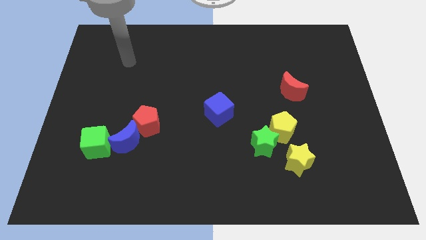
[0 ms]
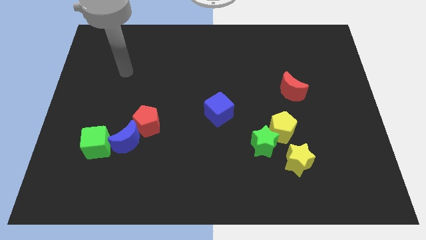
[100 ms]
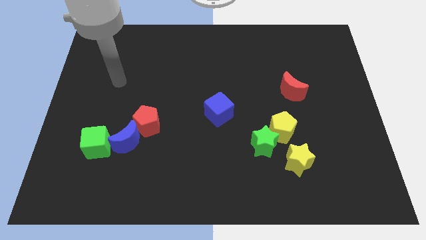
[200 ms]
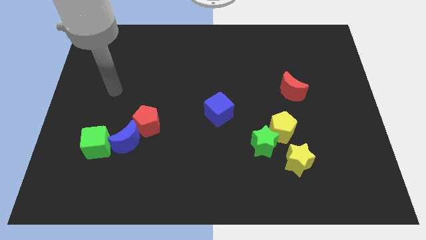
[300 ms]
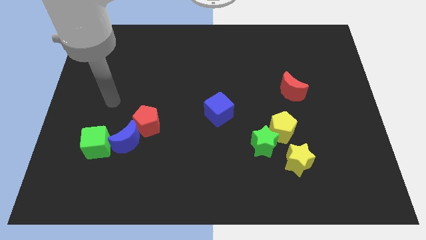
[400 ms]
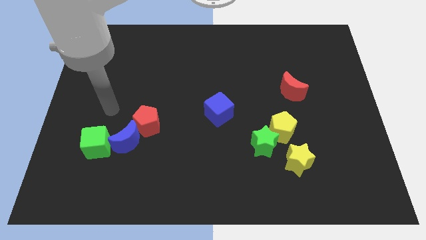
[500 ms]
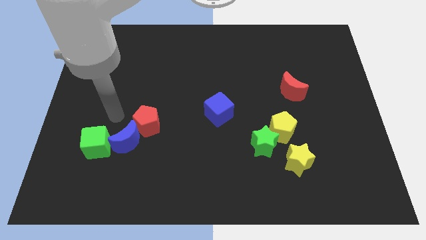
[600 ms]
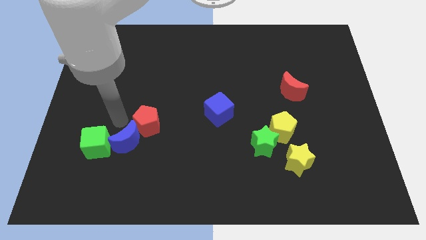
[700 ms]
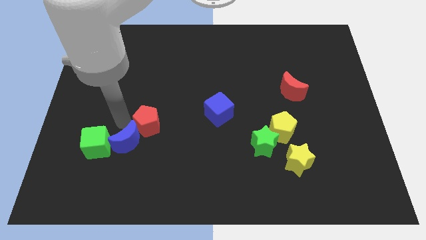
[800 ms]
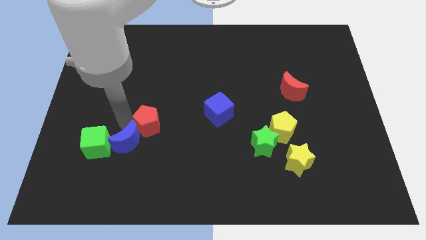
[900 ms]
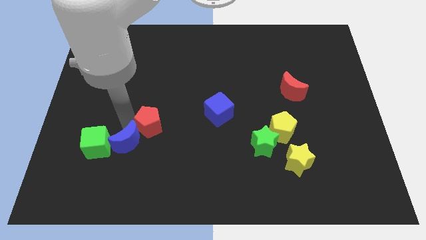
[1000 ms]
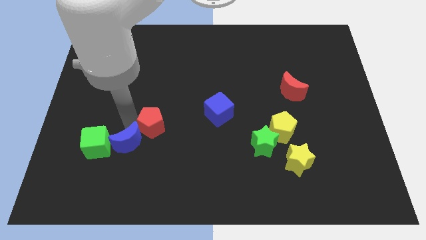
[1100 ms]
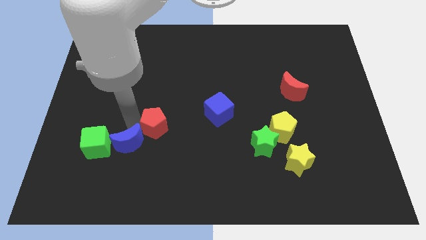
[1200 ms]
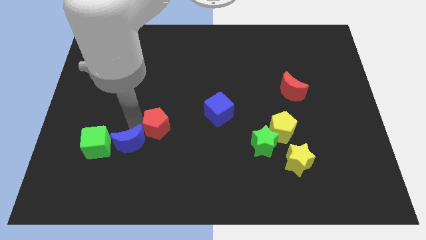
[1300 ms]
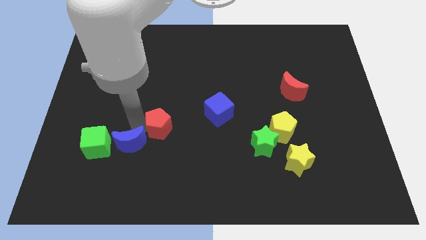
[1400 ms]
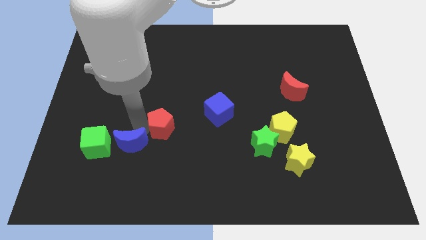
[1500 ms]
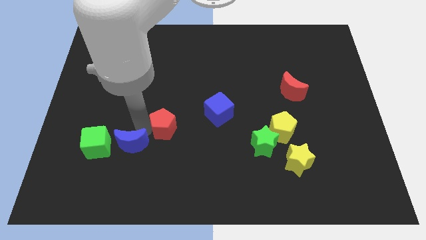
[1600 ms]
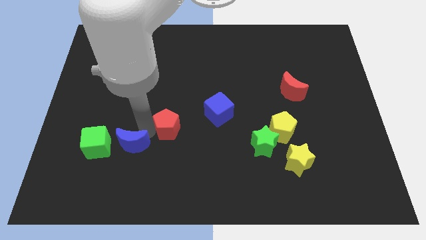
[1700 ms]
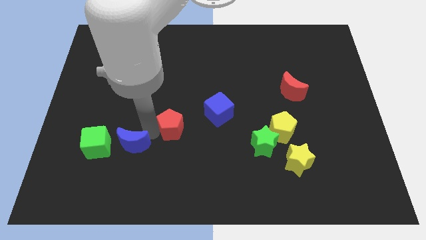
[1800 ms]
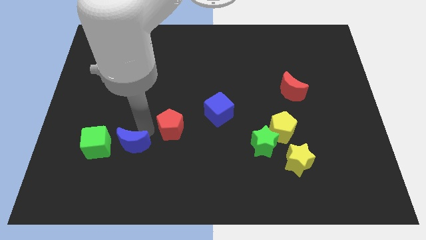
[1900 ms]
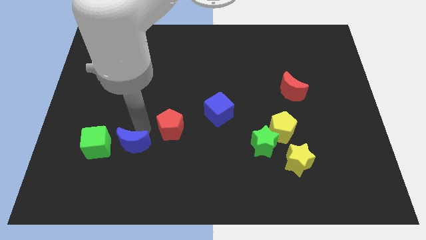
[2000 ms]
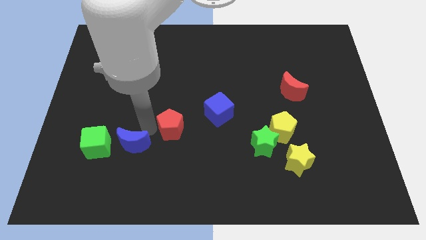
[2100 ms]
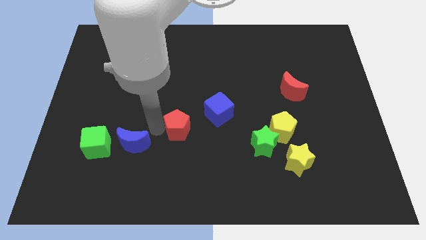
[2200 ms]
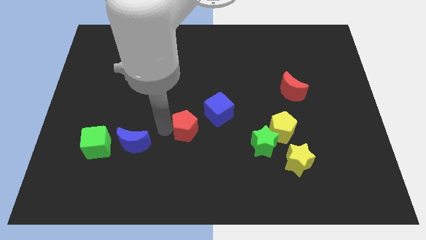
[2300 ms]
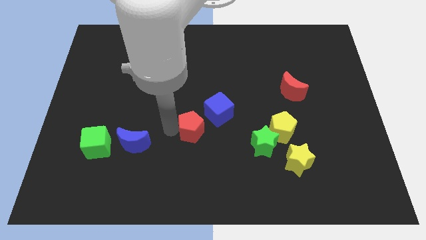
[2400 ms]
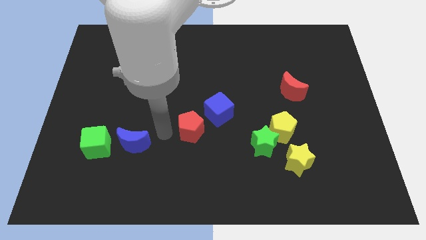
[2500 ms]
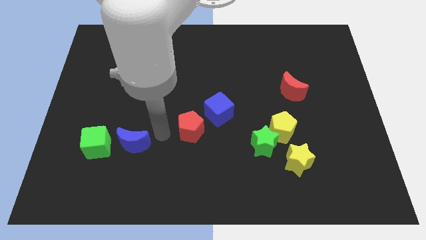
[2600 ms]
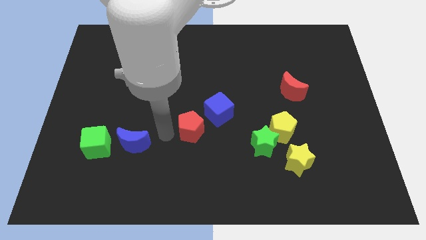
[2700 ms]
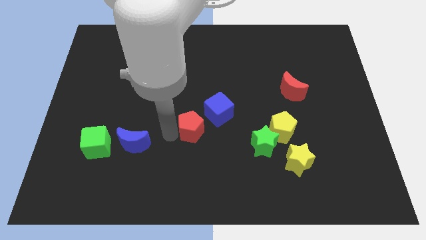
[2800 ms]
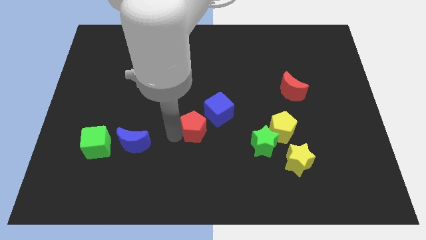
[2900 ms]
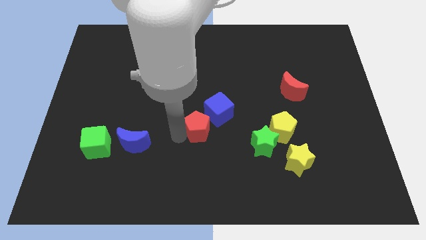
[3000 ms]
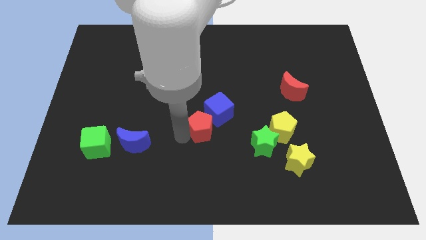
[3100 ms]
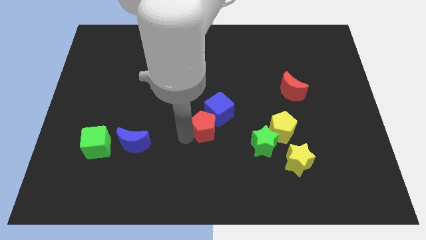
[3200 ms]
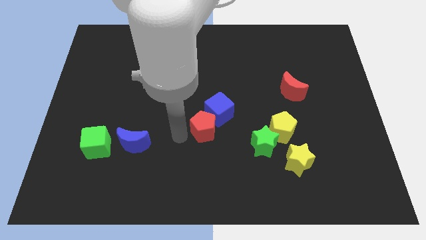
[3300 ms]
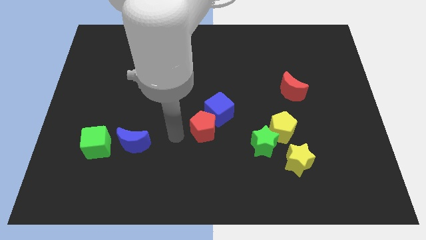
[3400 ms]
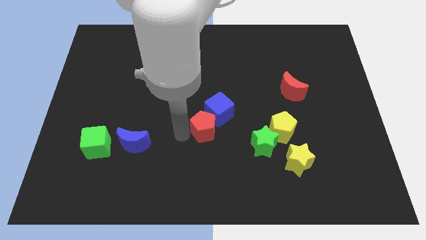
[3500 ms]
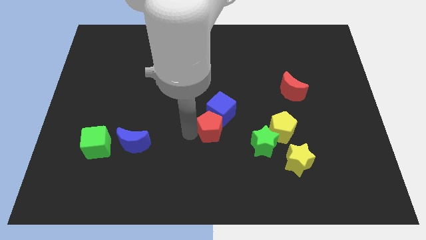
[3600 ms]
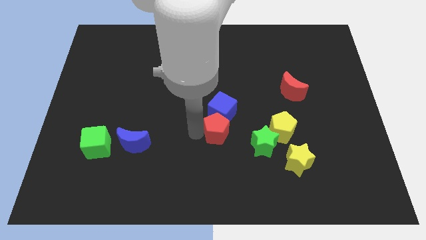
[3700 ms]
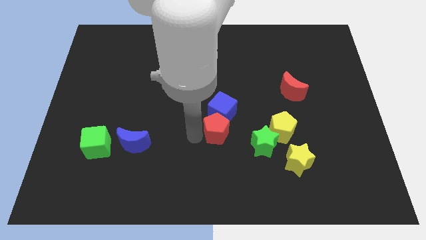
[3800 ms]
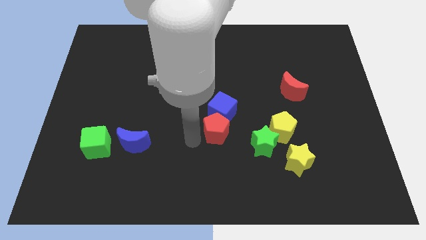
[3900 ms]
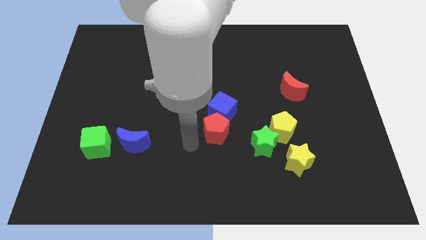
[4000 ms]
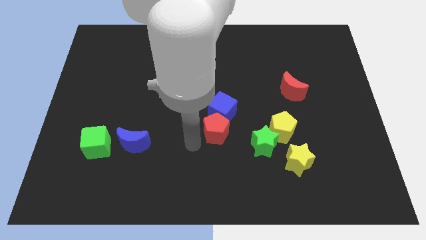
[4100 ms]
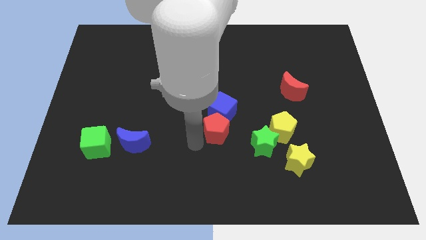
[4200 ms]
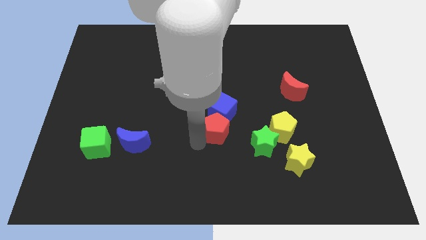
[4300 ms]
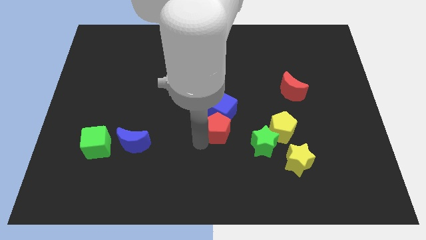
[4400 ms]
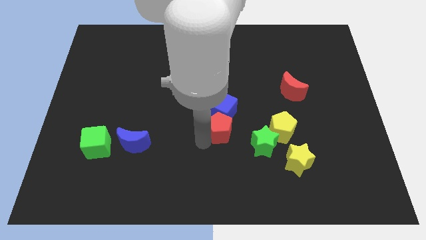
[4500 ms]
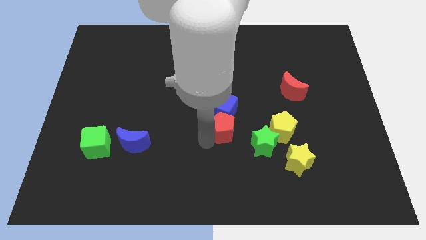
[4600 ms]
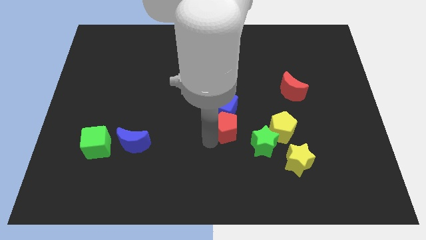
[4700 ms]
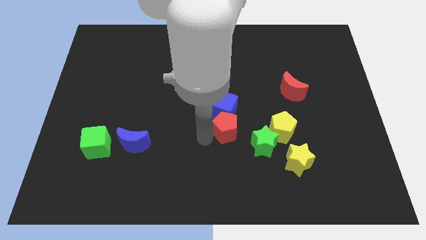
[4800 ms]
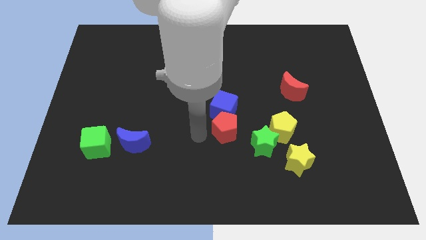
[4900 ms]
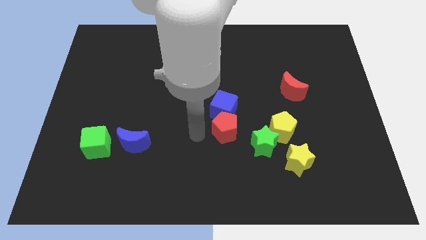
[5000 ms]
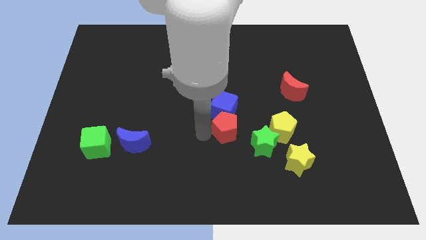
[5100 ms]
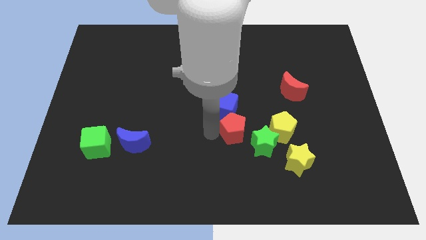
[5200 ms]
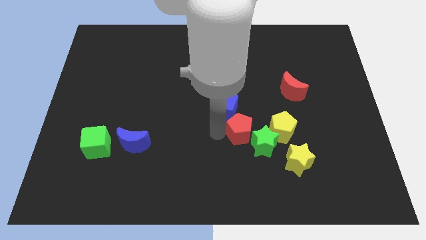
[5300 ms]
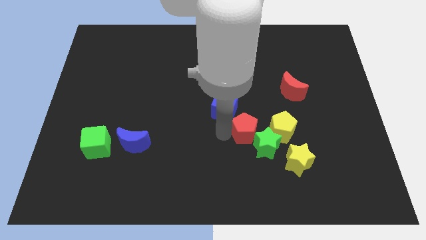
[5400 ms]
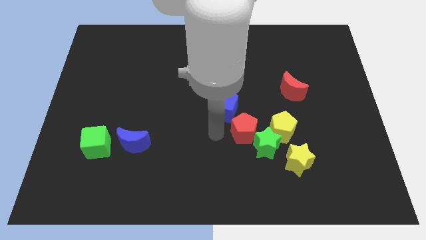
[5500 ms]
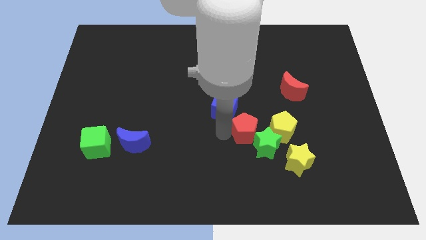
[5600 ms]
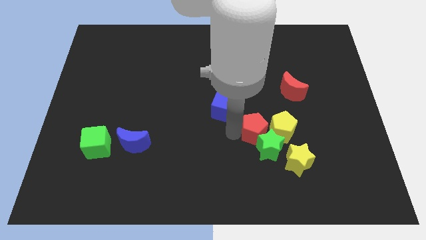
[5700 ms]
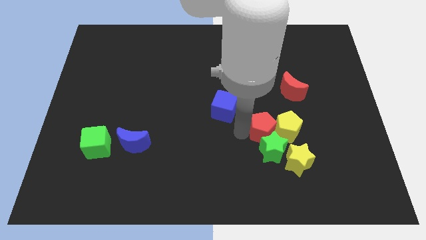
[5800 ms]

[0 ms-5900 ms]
put the red pentagon towards the yellow pentagon

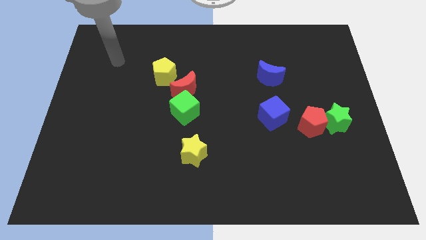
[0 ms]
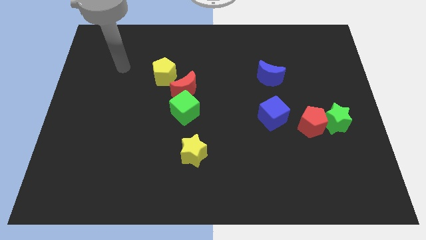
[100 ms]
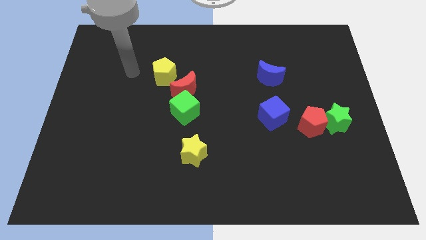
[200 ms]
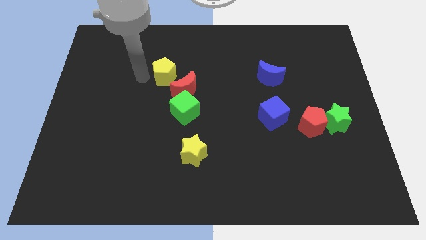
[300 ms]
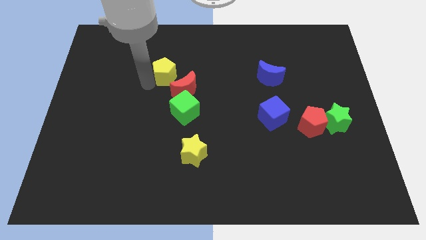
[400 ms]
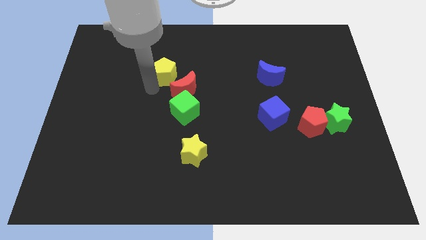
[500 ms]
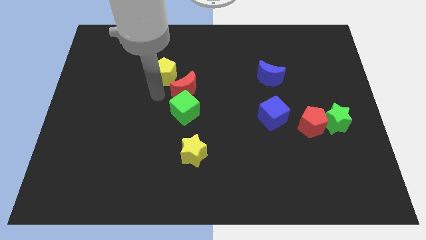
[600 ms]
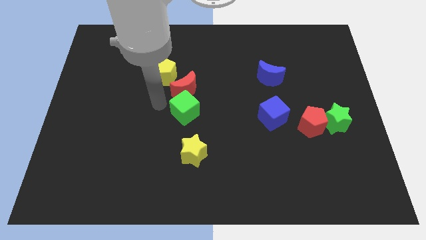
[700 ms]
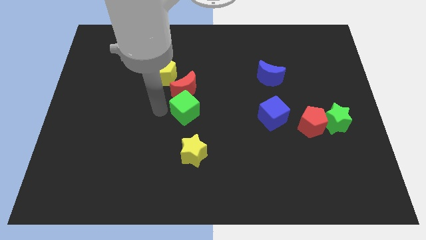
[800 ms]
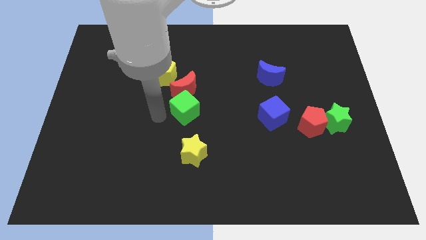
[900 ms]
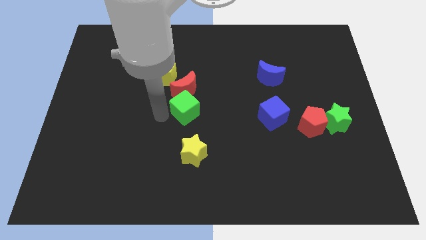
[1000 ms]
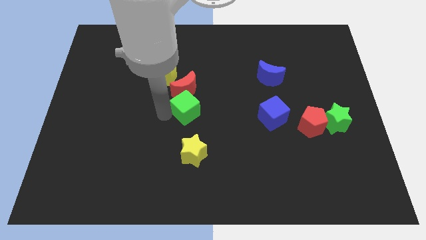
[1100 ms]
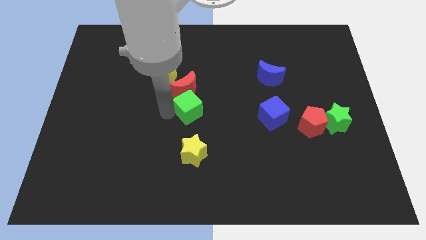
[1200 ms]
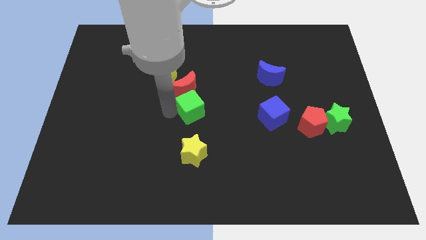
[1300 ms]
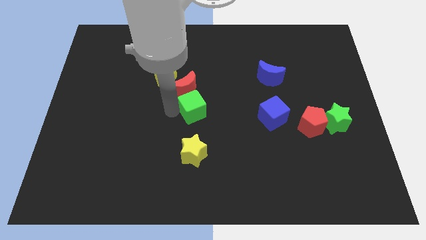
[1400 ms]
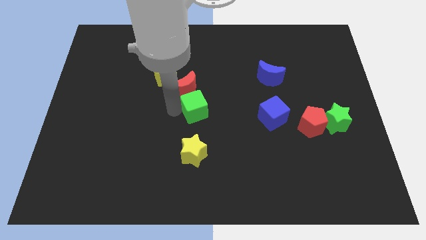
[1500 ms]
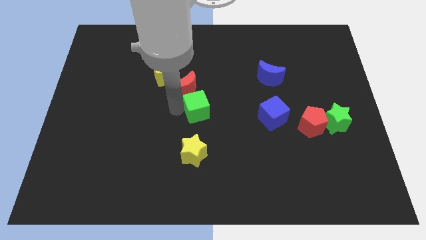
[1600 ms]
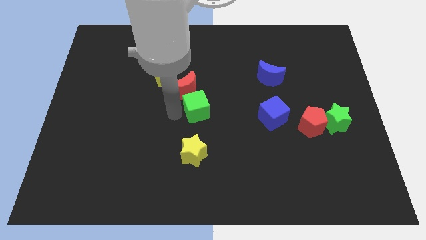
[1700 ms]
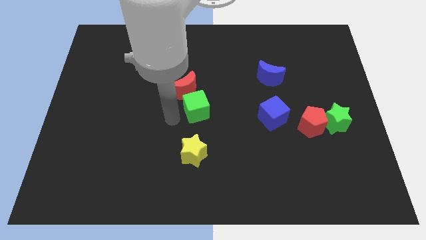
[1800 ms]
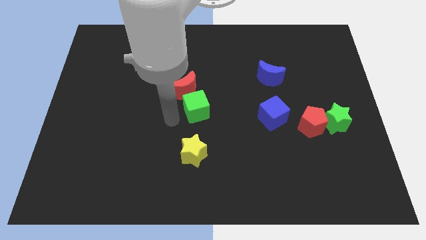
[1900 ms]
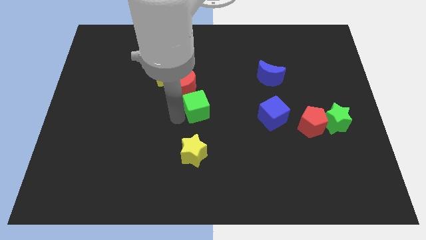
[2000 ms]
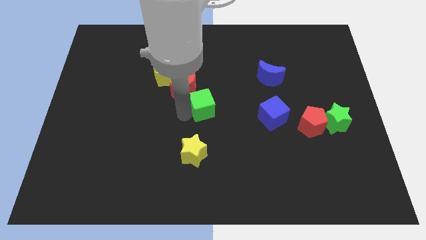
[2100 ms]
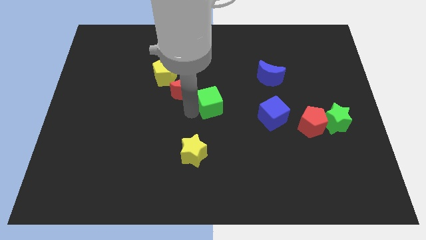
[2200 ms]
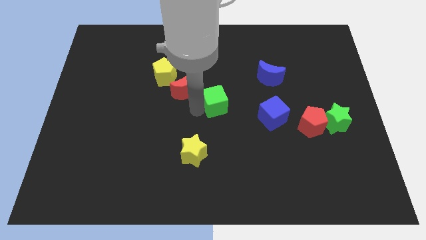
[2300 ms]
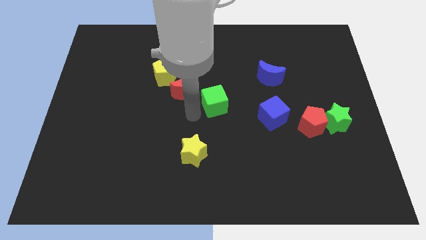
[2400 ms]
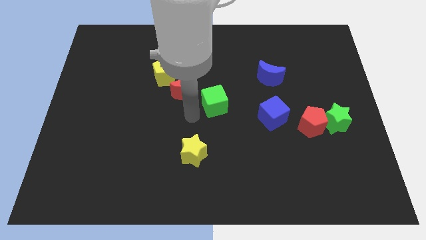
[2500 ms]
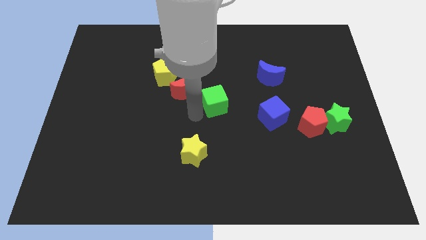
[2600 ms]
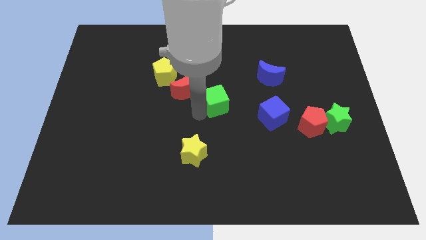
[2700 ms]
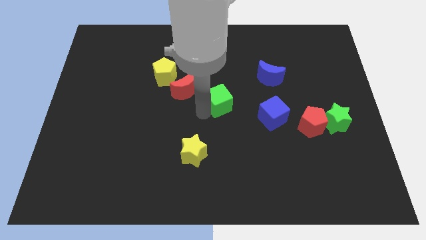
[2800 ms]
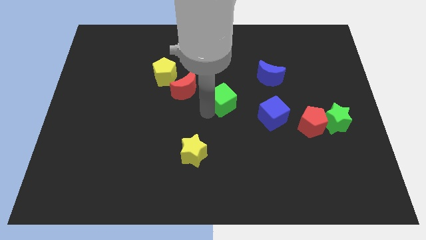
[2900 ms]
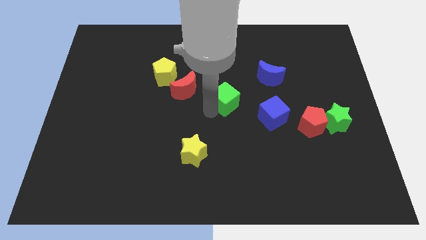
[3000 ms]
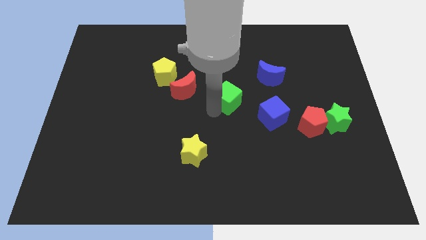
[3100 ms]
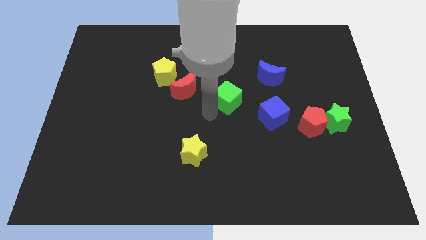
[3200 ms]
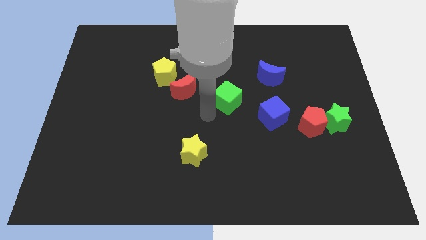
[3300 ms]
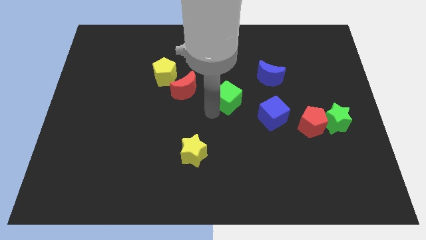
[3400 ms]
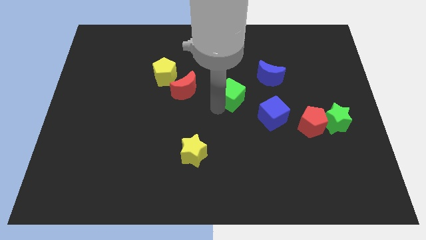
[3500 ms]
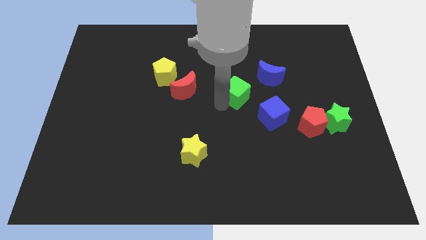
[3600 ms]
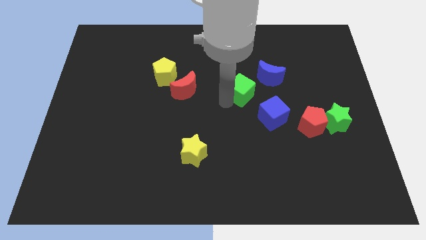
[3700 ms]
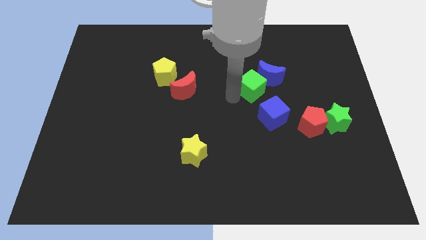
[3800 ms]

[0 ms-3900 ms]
put the green cube close to the blue moon
